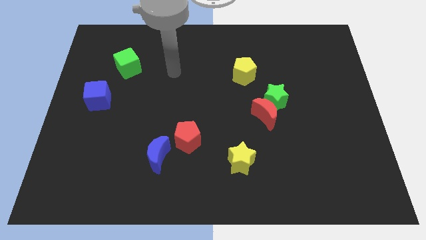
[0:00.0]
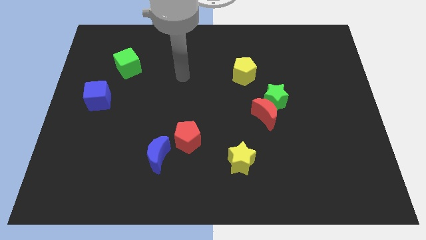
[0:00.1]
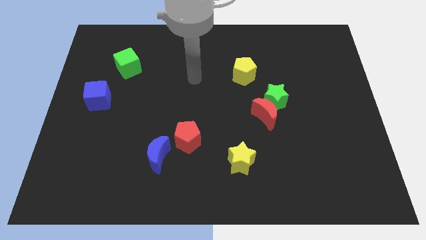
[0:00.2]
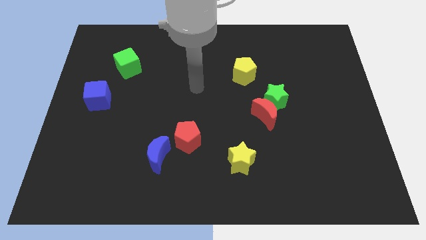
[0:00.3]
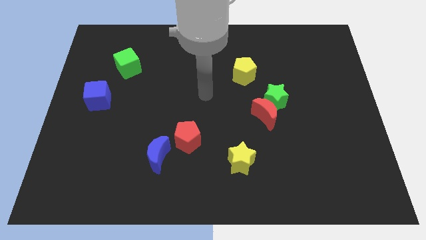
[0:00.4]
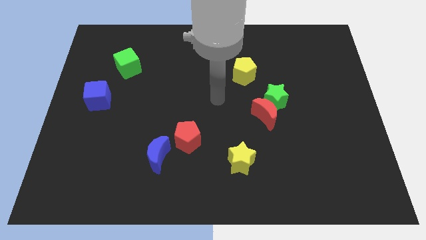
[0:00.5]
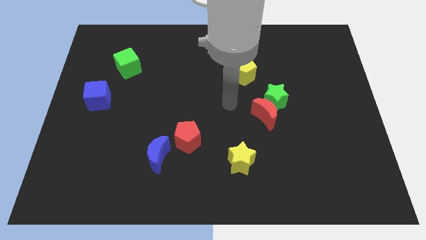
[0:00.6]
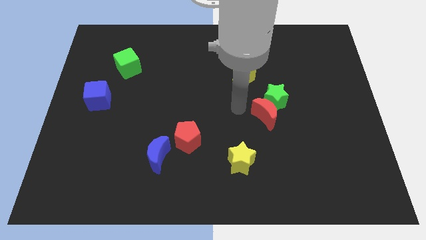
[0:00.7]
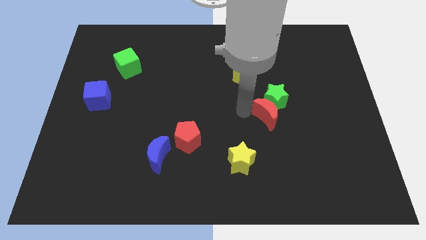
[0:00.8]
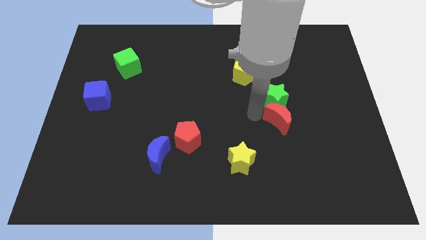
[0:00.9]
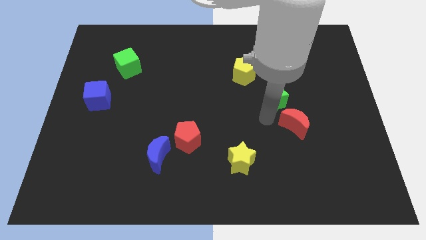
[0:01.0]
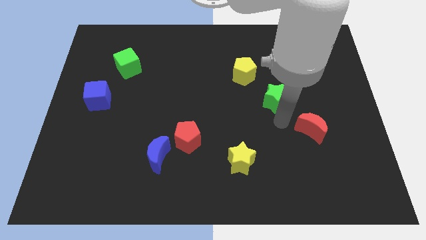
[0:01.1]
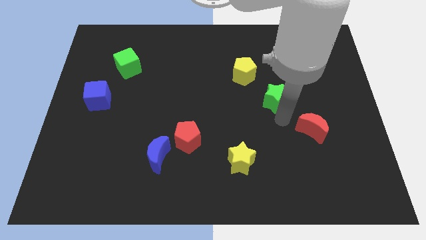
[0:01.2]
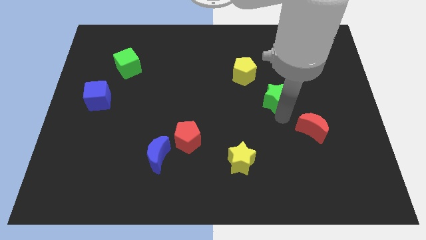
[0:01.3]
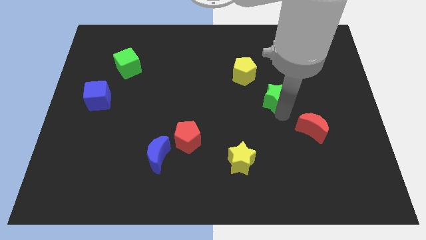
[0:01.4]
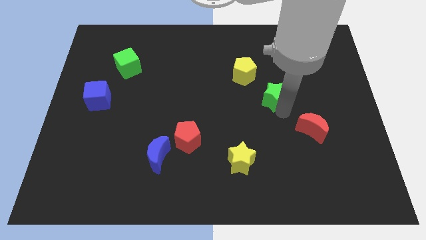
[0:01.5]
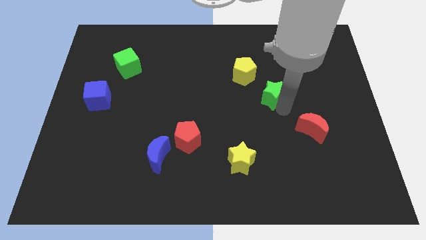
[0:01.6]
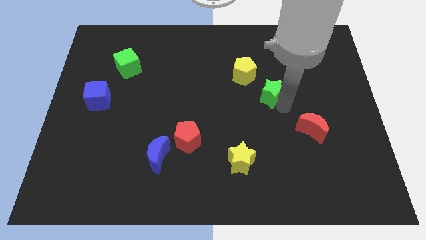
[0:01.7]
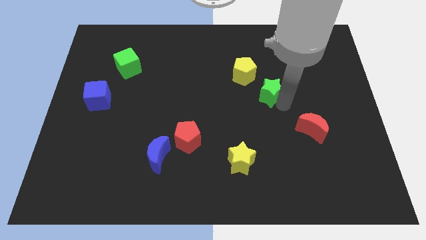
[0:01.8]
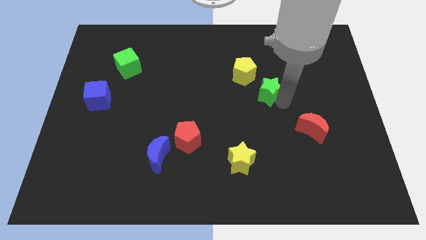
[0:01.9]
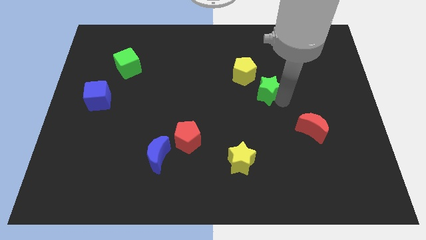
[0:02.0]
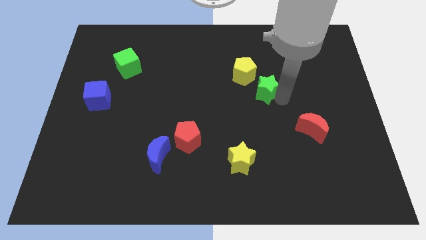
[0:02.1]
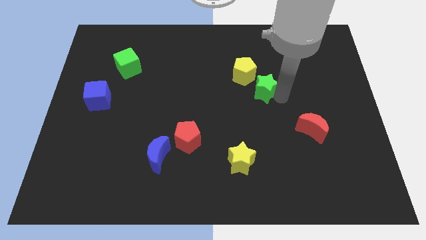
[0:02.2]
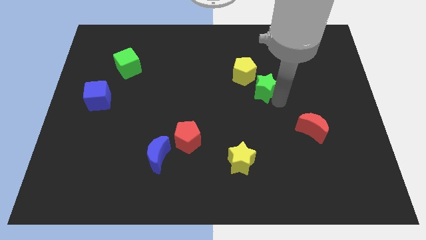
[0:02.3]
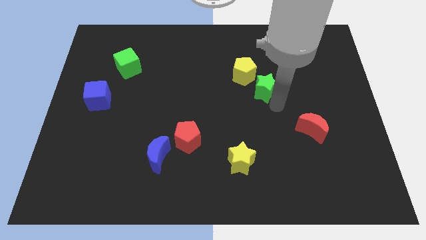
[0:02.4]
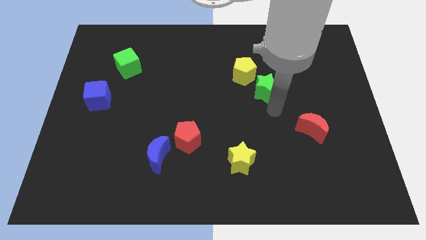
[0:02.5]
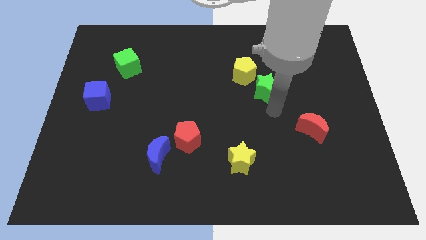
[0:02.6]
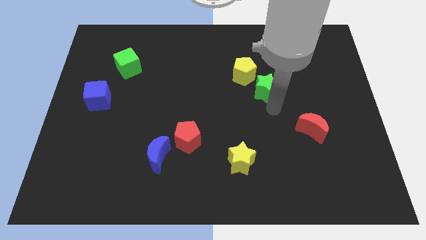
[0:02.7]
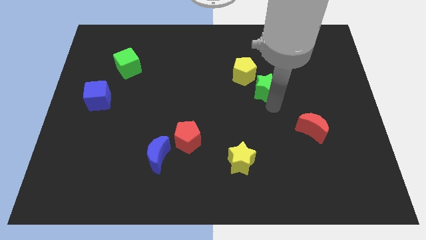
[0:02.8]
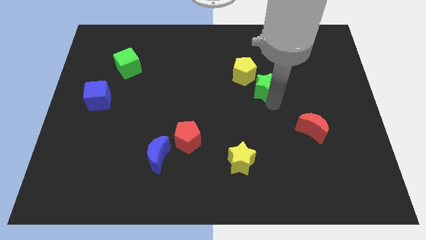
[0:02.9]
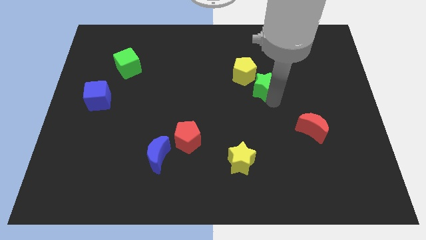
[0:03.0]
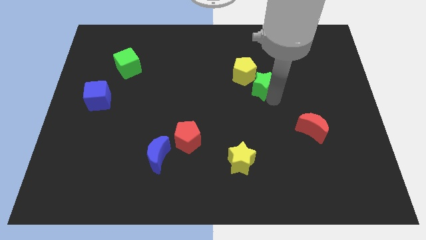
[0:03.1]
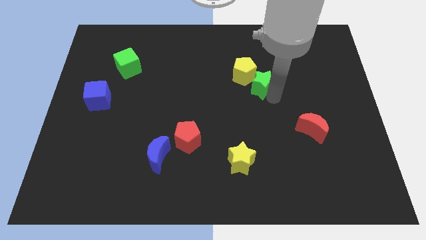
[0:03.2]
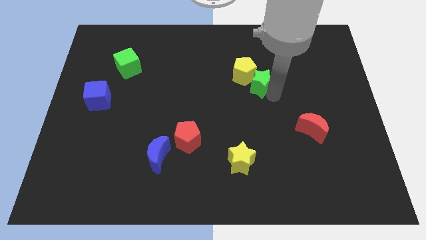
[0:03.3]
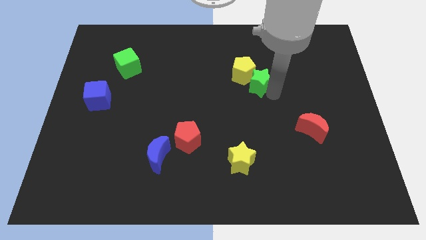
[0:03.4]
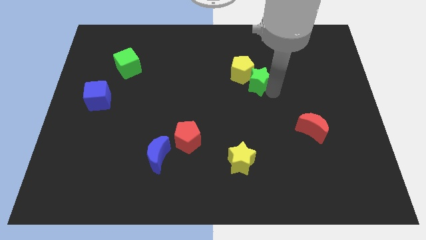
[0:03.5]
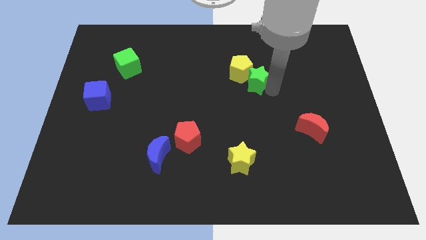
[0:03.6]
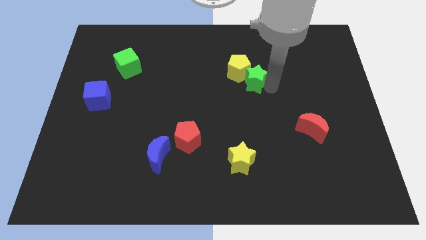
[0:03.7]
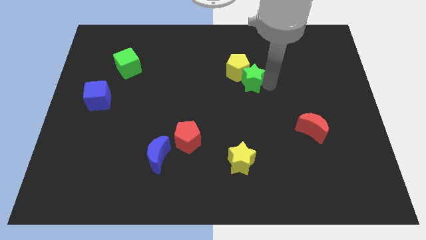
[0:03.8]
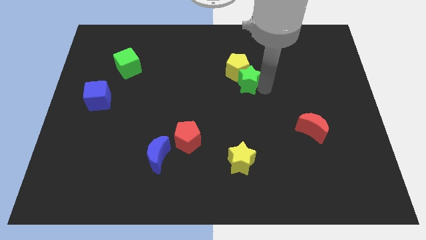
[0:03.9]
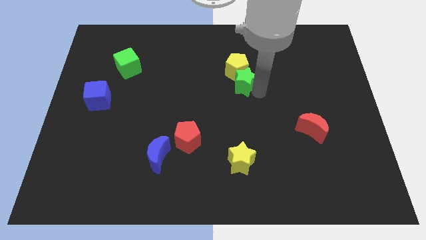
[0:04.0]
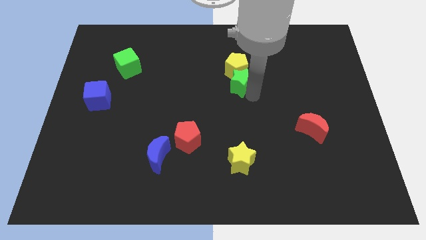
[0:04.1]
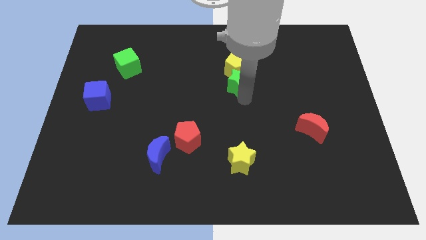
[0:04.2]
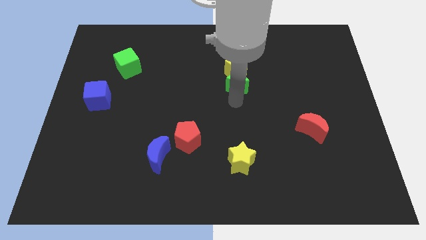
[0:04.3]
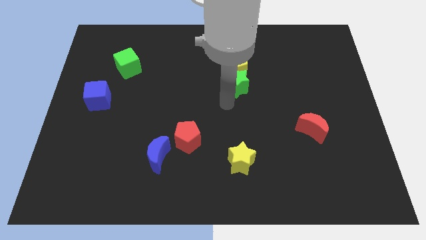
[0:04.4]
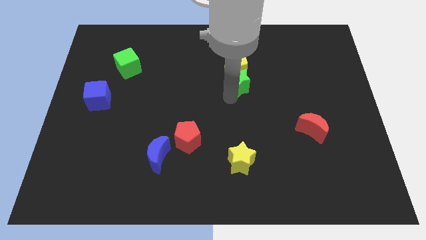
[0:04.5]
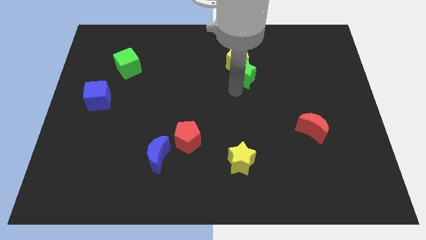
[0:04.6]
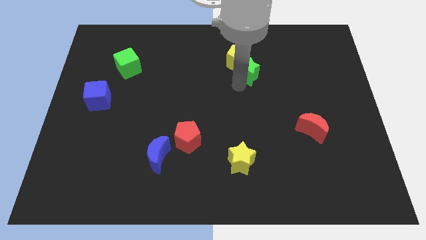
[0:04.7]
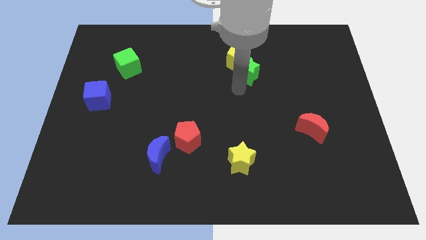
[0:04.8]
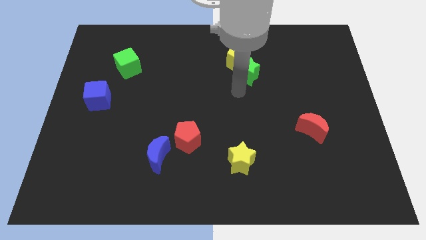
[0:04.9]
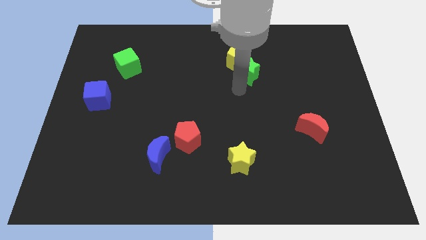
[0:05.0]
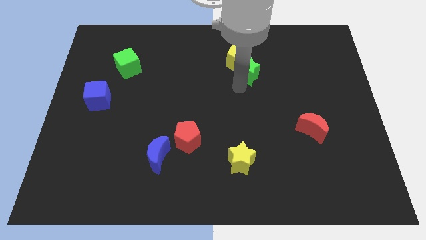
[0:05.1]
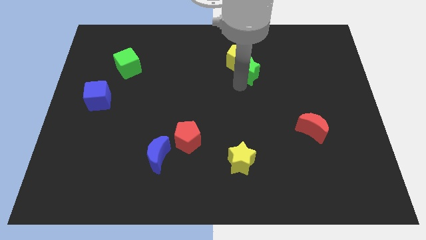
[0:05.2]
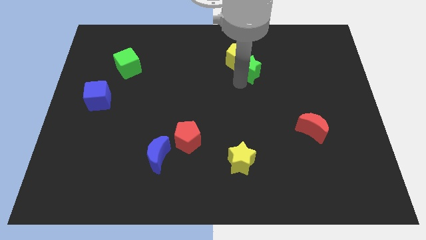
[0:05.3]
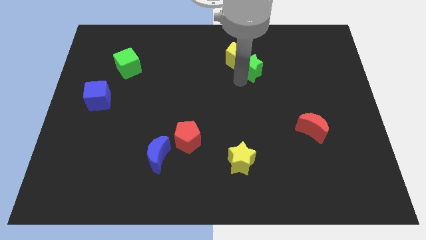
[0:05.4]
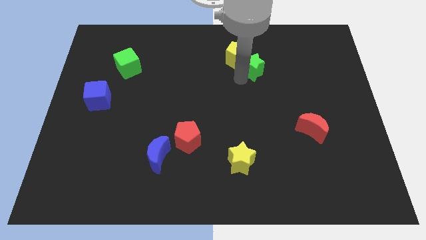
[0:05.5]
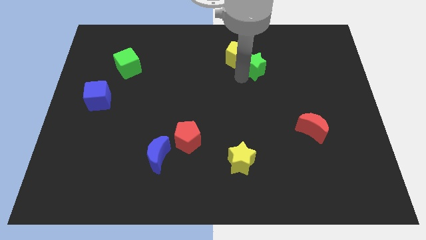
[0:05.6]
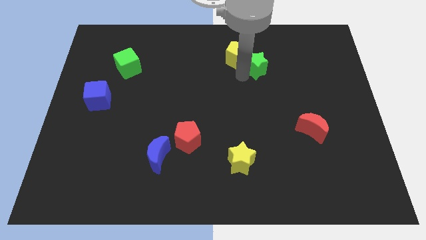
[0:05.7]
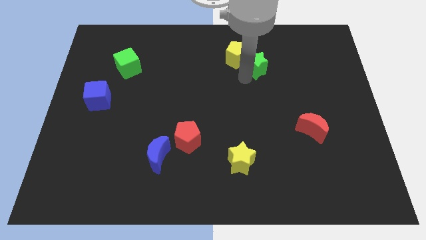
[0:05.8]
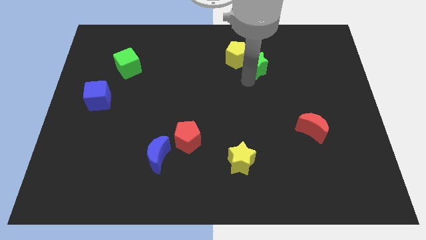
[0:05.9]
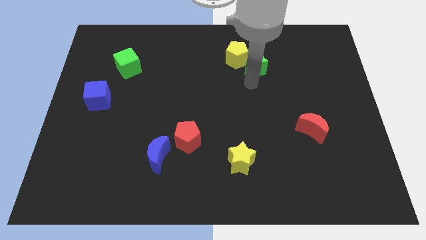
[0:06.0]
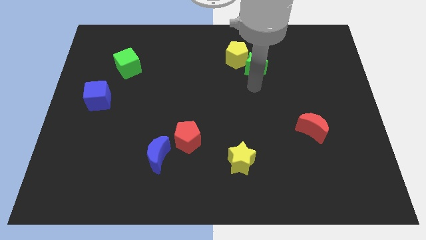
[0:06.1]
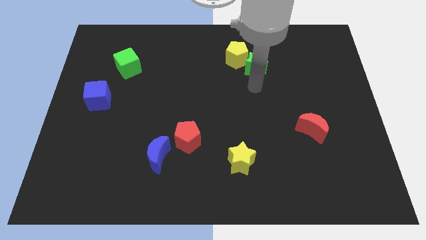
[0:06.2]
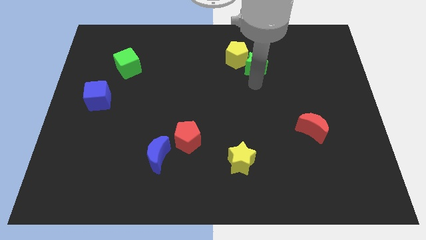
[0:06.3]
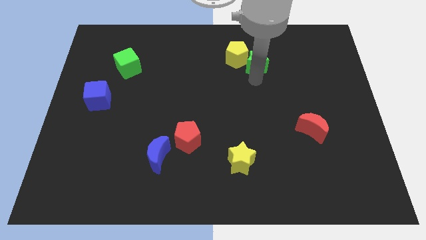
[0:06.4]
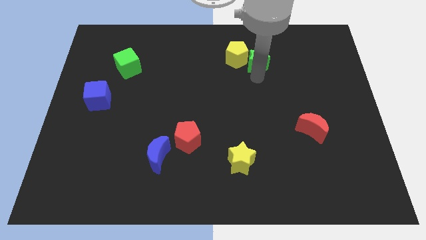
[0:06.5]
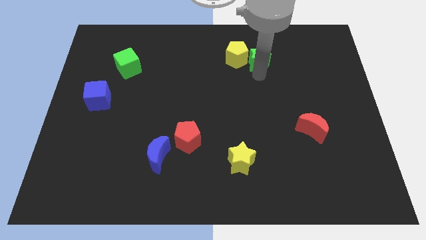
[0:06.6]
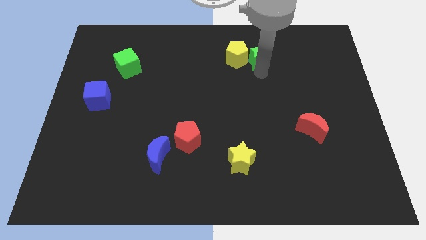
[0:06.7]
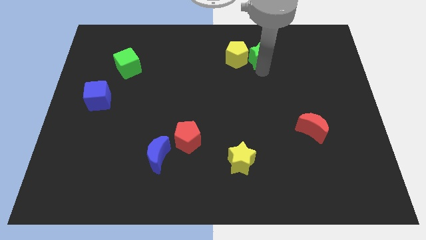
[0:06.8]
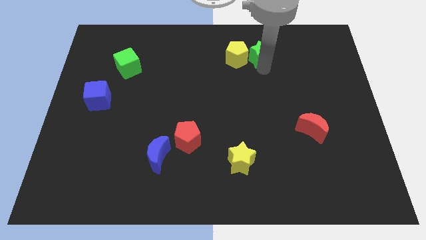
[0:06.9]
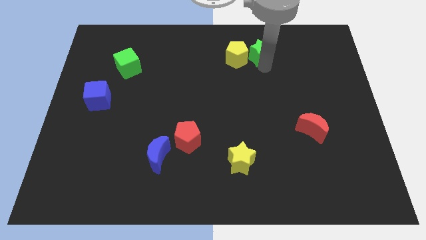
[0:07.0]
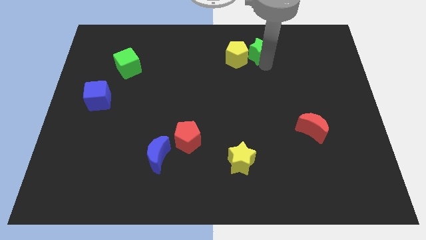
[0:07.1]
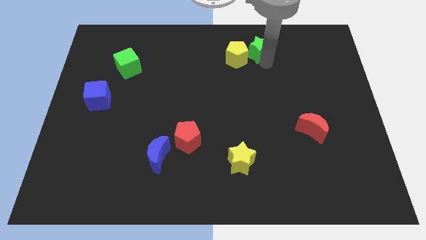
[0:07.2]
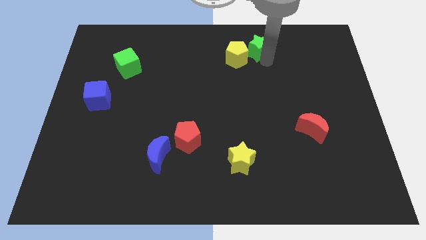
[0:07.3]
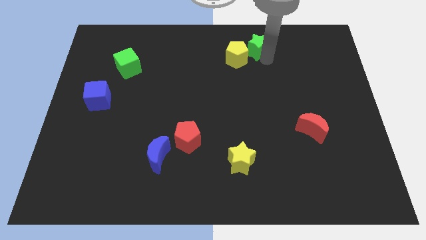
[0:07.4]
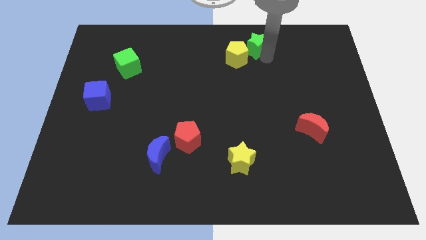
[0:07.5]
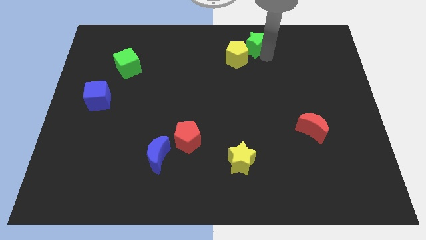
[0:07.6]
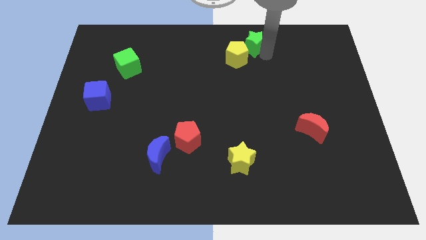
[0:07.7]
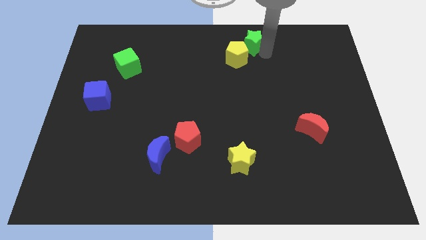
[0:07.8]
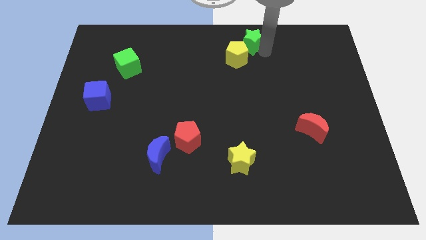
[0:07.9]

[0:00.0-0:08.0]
put the green star to the towards your base

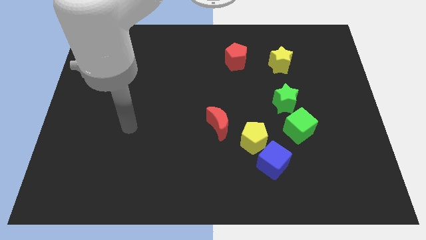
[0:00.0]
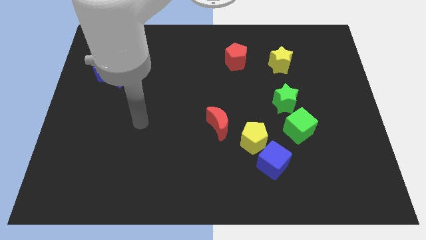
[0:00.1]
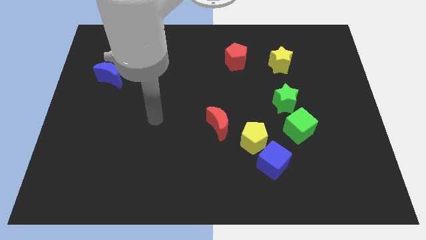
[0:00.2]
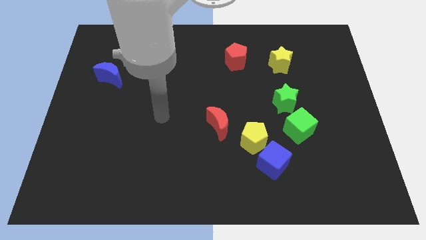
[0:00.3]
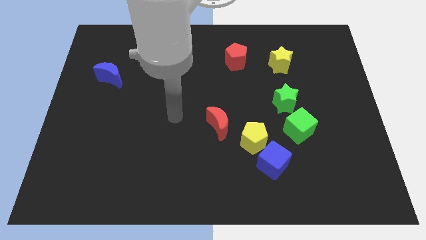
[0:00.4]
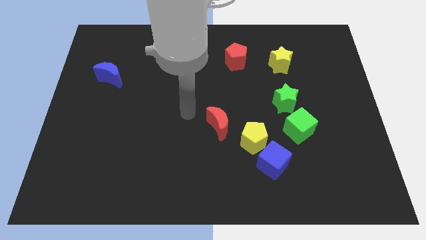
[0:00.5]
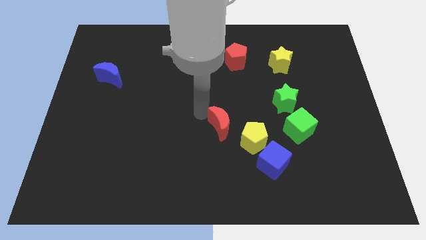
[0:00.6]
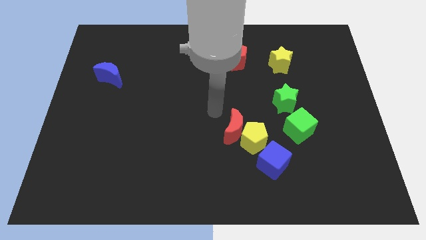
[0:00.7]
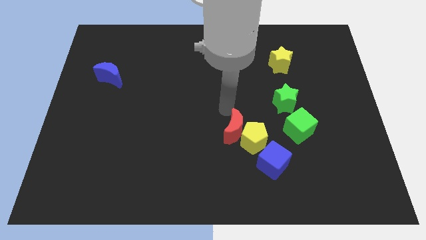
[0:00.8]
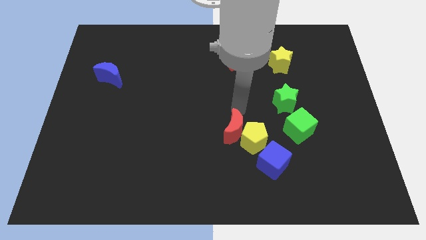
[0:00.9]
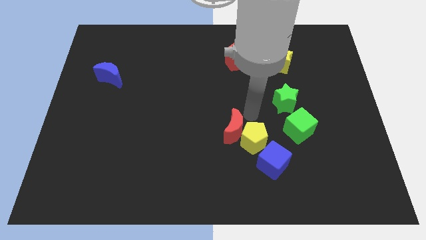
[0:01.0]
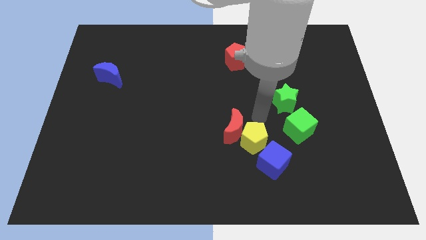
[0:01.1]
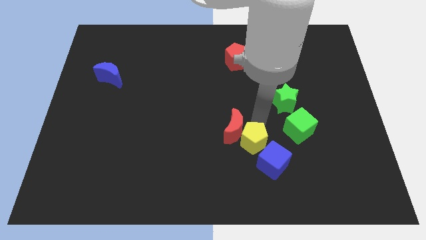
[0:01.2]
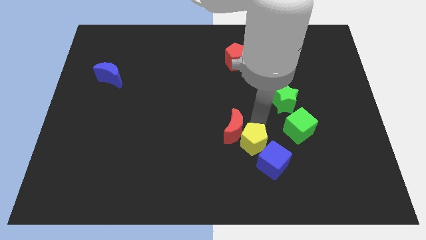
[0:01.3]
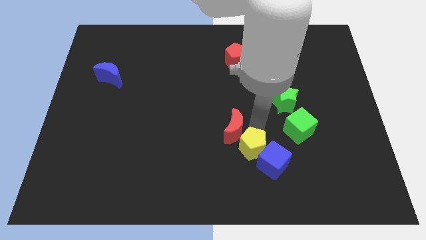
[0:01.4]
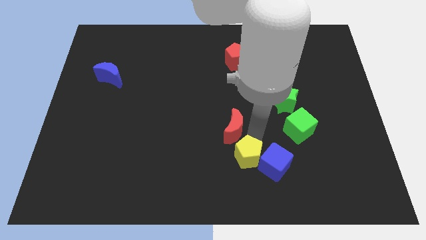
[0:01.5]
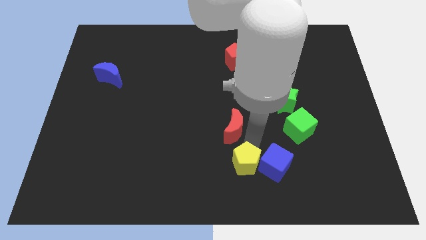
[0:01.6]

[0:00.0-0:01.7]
slide the yellow pentagon to the bottom side
